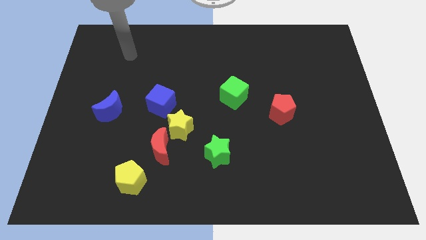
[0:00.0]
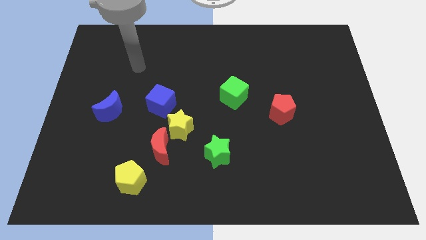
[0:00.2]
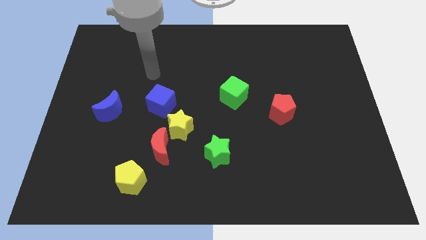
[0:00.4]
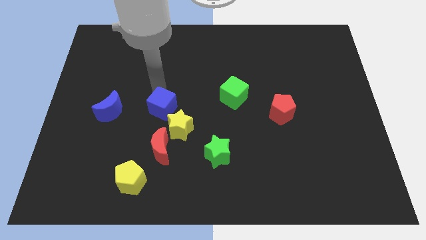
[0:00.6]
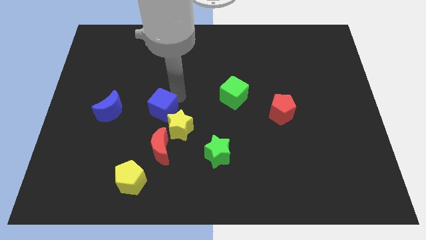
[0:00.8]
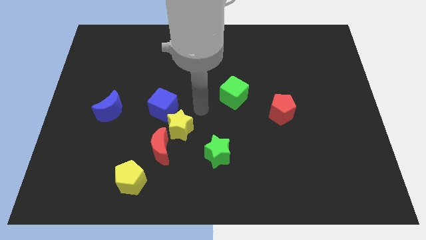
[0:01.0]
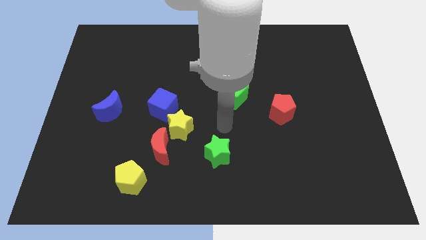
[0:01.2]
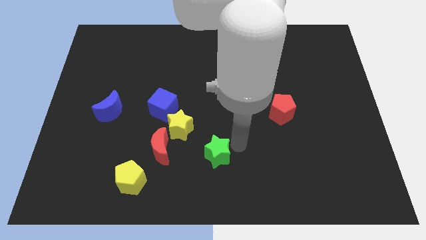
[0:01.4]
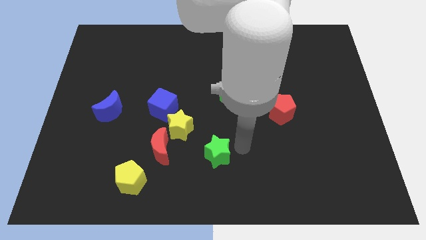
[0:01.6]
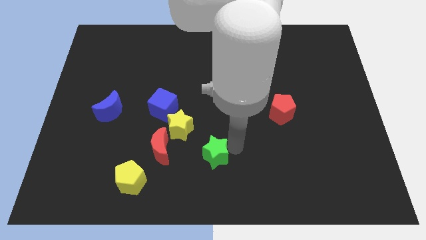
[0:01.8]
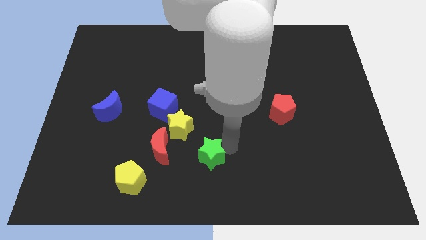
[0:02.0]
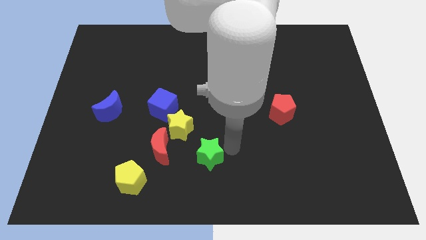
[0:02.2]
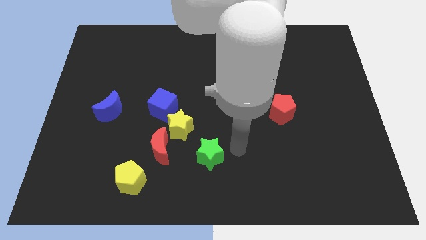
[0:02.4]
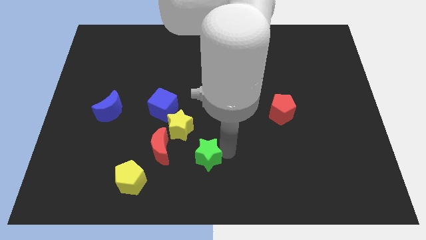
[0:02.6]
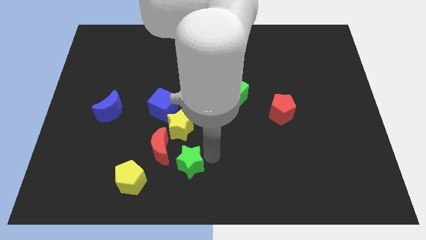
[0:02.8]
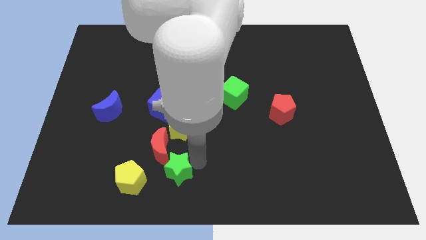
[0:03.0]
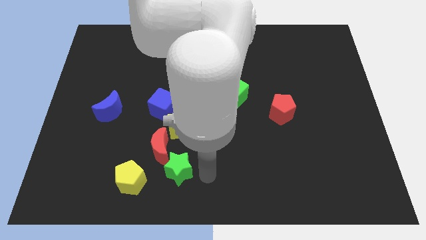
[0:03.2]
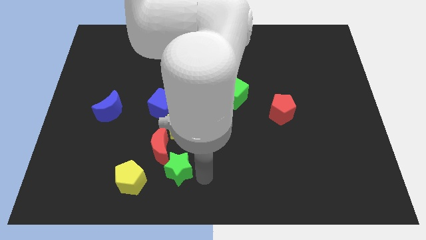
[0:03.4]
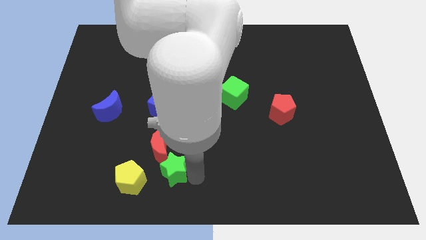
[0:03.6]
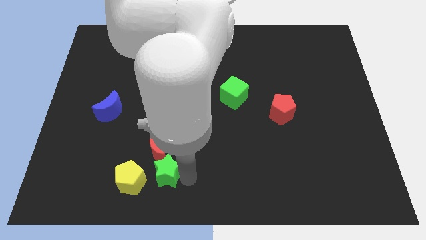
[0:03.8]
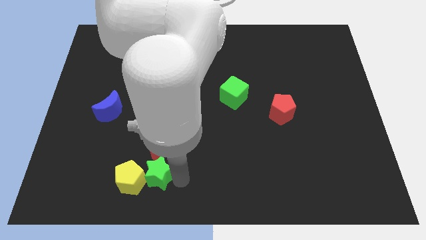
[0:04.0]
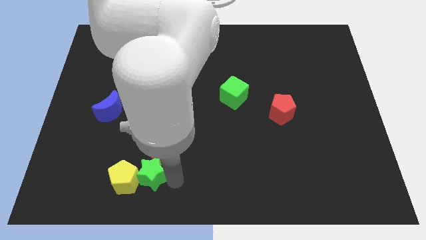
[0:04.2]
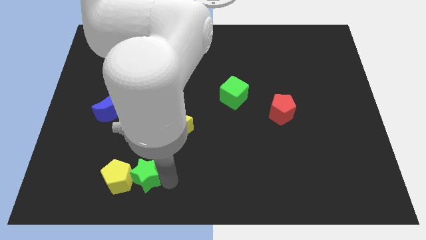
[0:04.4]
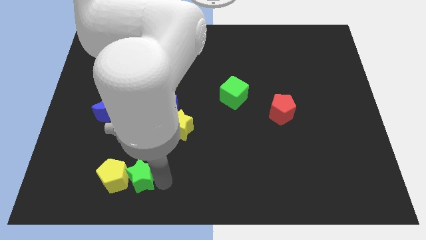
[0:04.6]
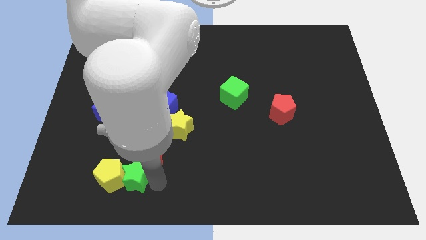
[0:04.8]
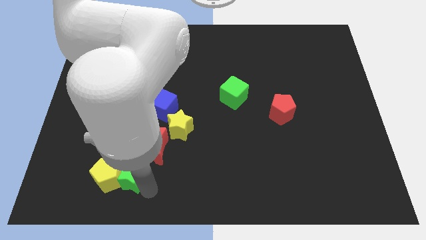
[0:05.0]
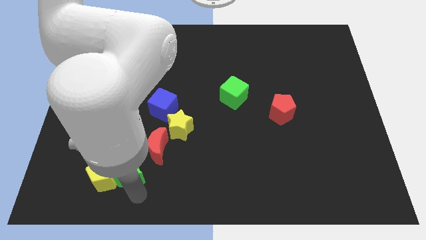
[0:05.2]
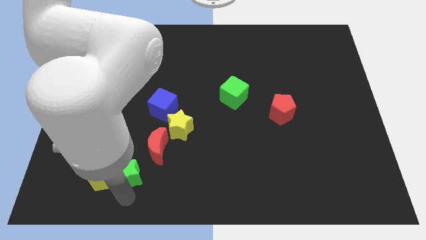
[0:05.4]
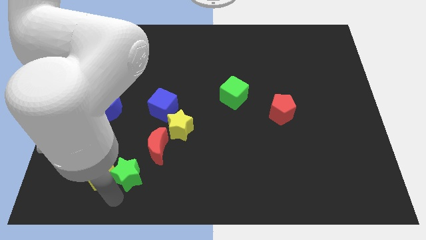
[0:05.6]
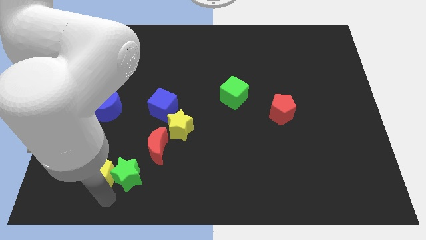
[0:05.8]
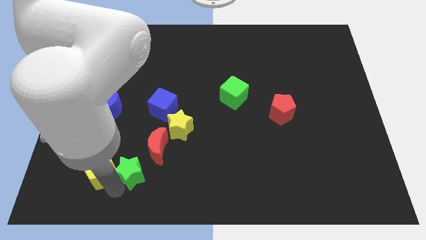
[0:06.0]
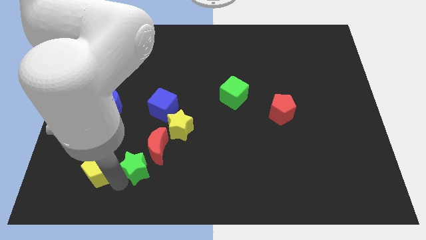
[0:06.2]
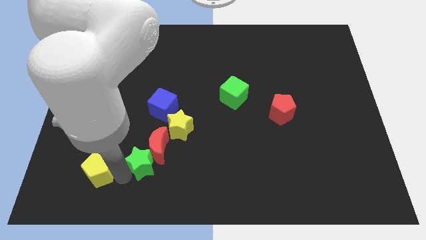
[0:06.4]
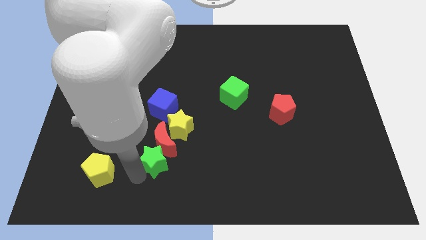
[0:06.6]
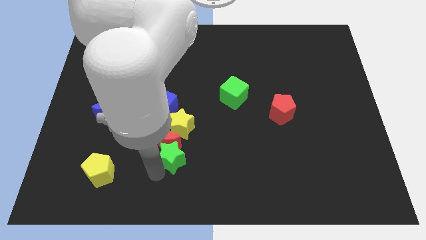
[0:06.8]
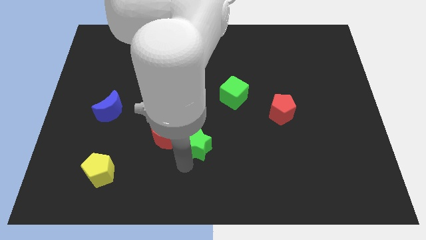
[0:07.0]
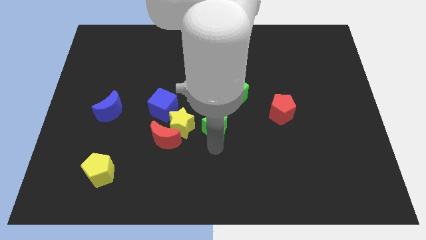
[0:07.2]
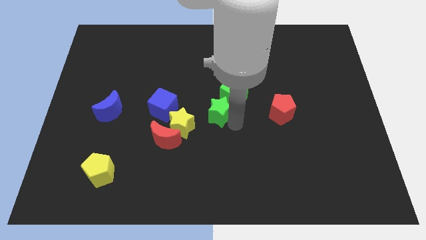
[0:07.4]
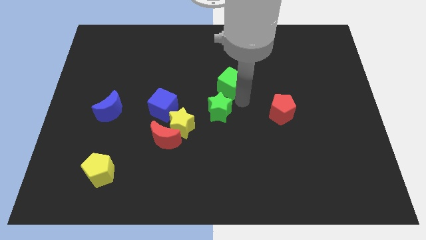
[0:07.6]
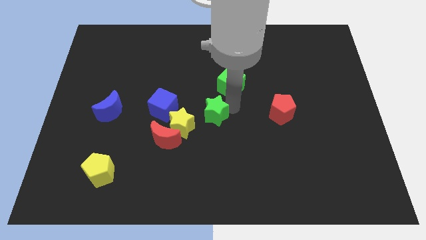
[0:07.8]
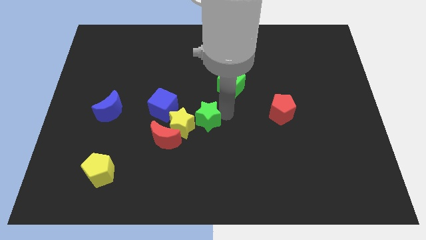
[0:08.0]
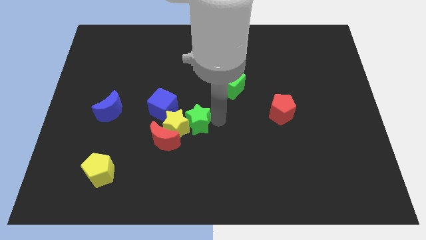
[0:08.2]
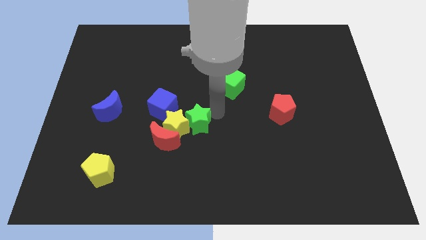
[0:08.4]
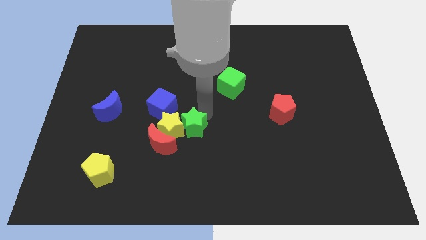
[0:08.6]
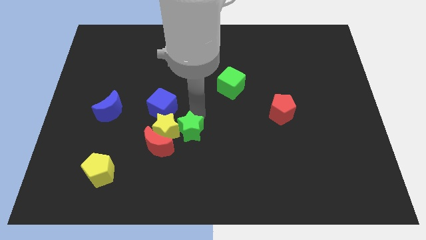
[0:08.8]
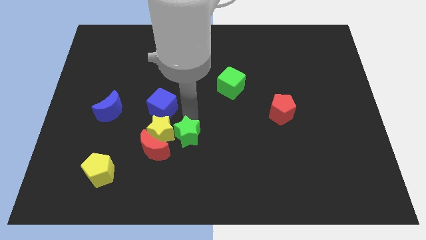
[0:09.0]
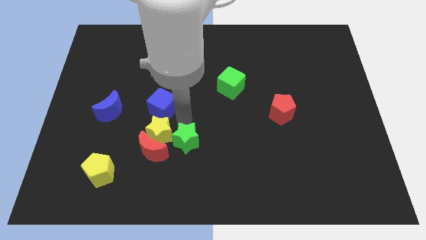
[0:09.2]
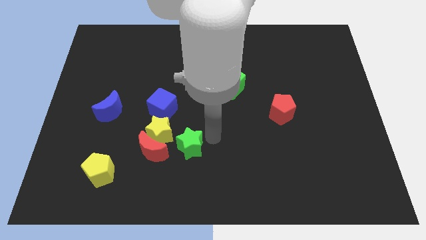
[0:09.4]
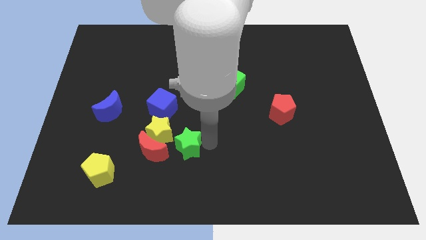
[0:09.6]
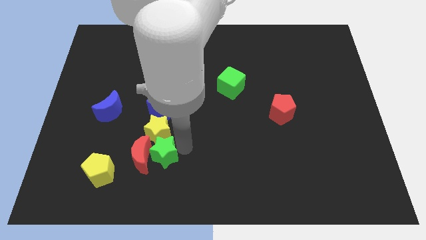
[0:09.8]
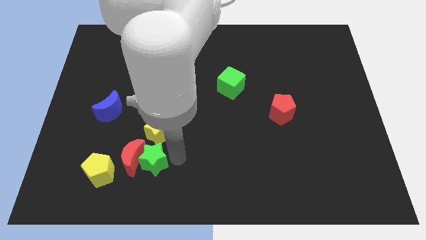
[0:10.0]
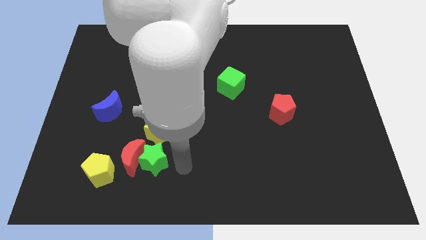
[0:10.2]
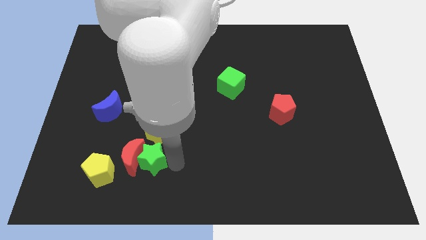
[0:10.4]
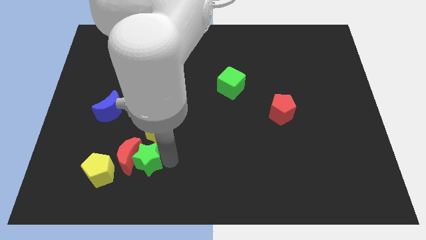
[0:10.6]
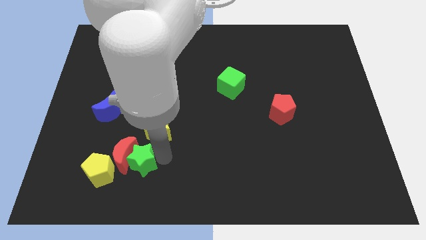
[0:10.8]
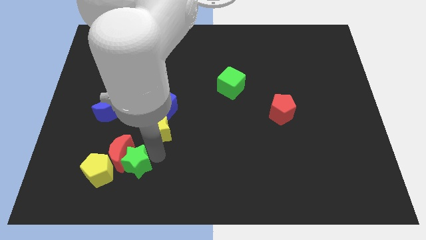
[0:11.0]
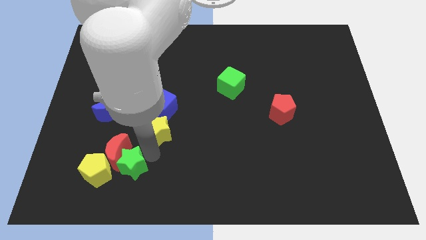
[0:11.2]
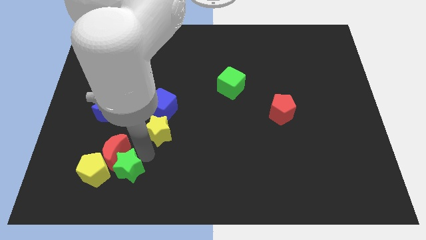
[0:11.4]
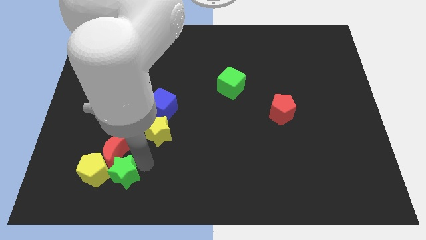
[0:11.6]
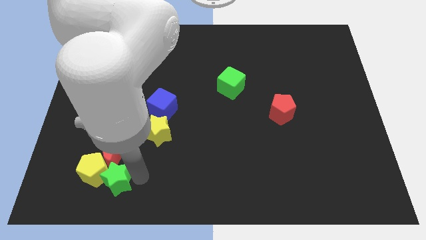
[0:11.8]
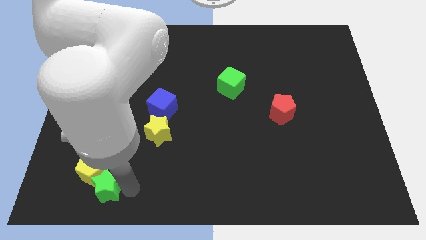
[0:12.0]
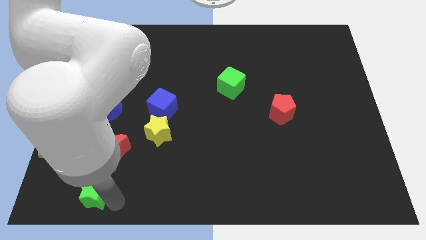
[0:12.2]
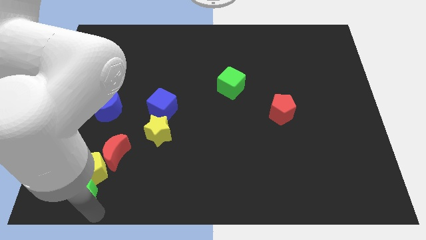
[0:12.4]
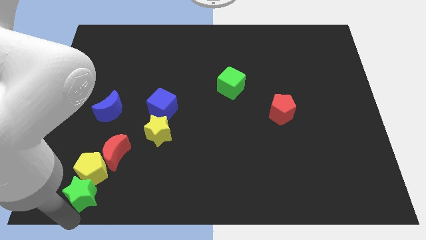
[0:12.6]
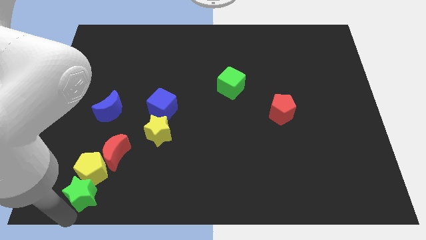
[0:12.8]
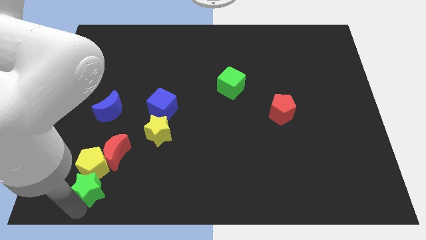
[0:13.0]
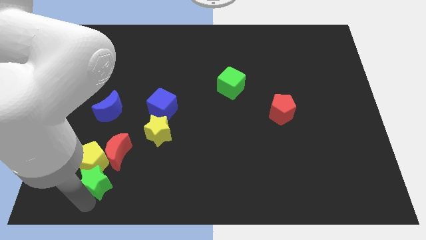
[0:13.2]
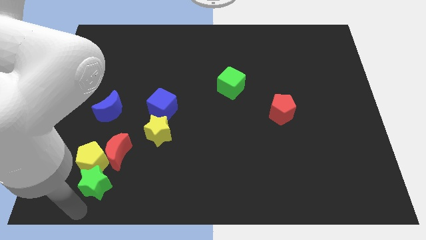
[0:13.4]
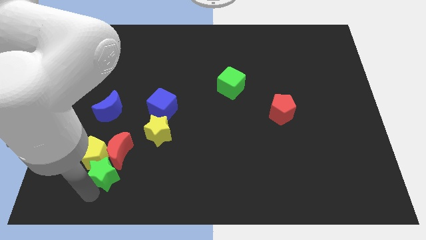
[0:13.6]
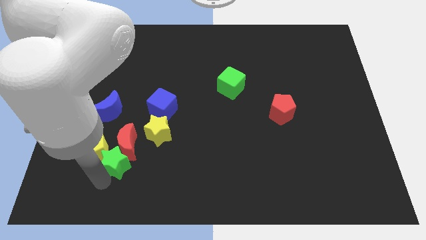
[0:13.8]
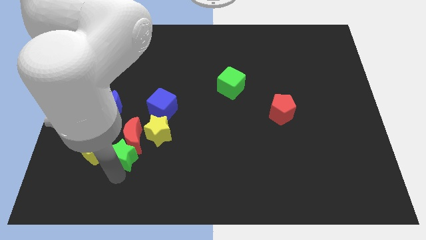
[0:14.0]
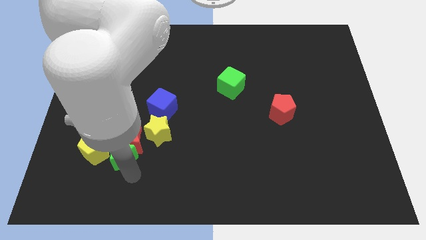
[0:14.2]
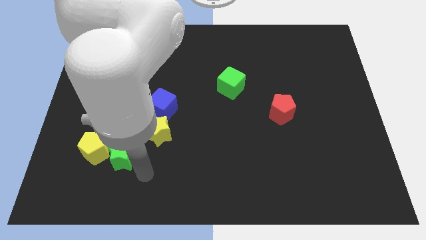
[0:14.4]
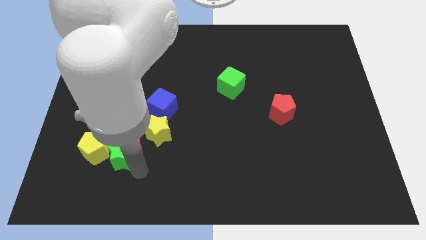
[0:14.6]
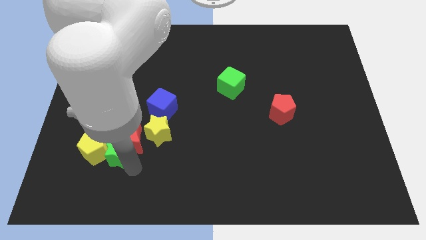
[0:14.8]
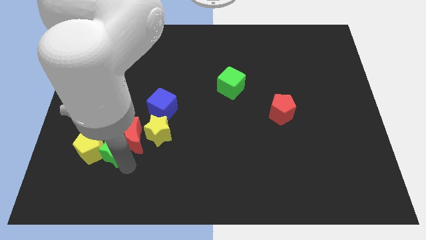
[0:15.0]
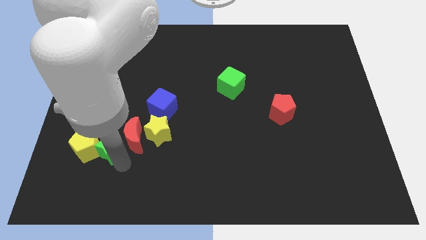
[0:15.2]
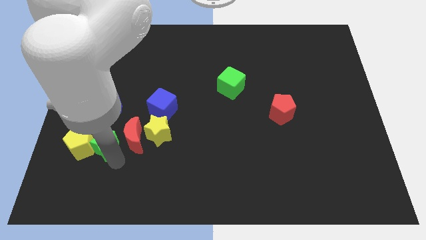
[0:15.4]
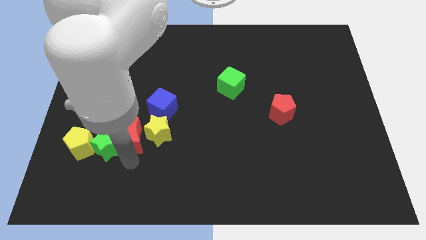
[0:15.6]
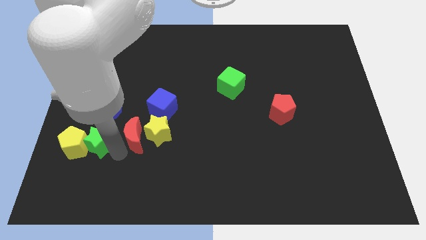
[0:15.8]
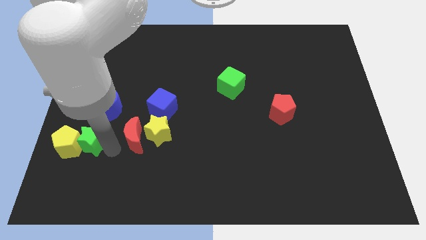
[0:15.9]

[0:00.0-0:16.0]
move the green star to the bottom left of the blue moon
